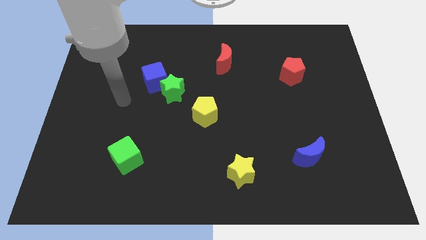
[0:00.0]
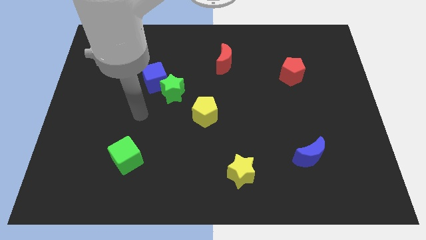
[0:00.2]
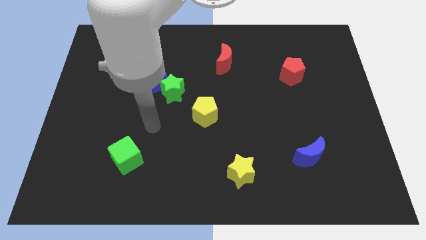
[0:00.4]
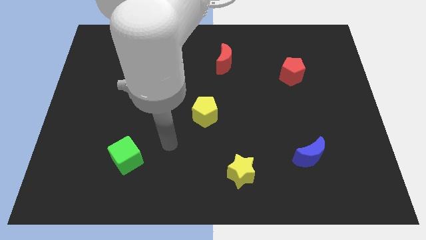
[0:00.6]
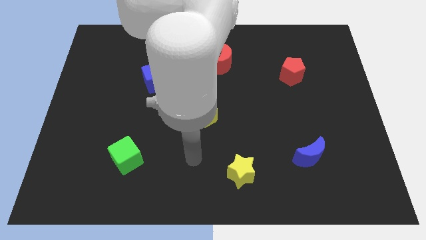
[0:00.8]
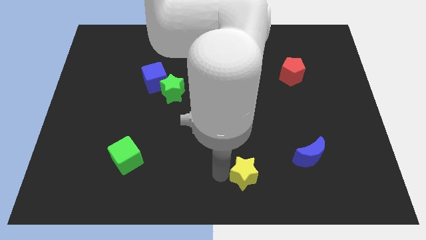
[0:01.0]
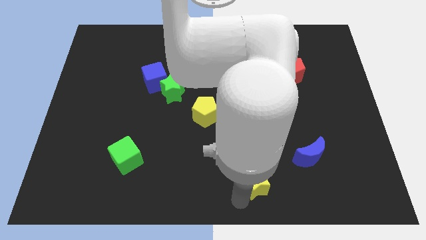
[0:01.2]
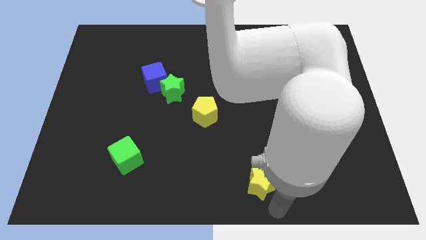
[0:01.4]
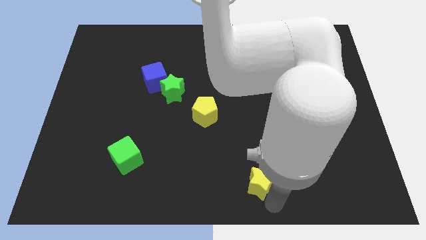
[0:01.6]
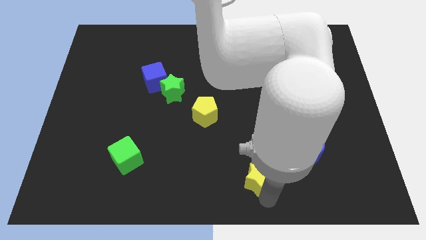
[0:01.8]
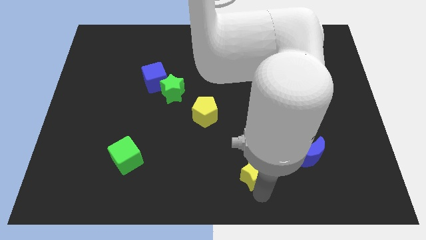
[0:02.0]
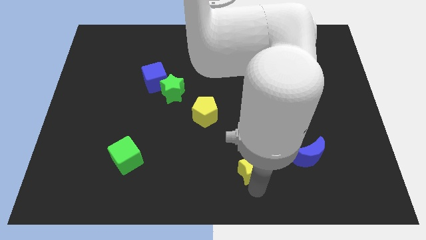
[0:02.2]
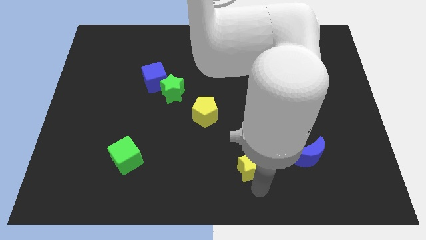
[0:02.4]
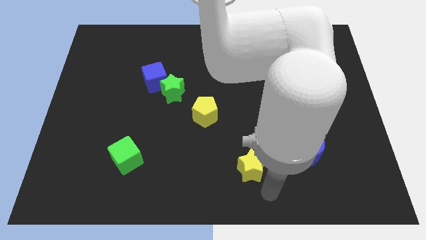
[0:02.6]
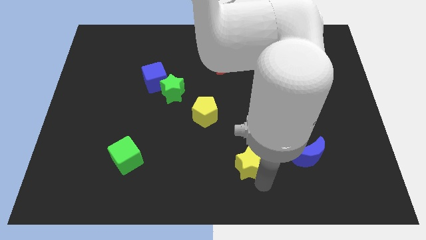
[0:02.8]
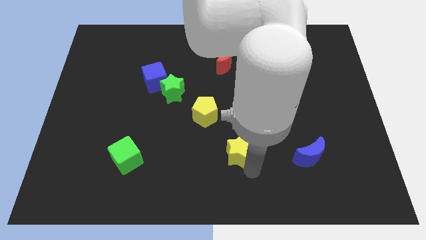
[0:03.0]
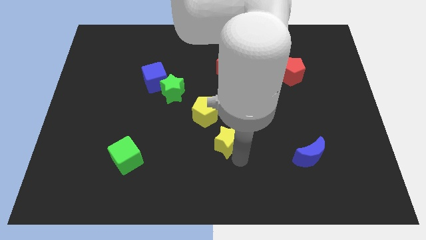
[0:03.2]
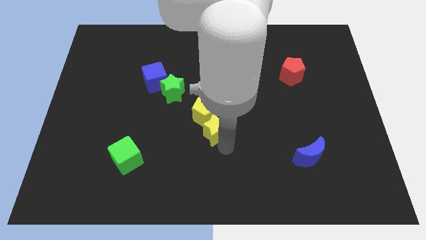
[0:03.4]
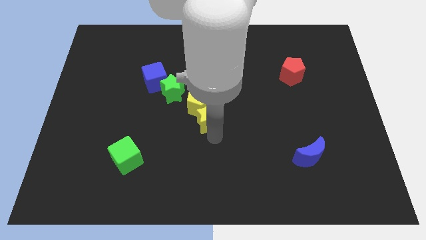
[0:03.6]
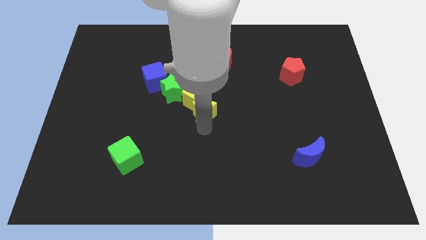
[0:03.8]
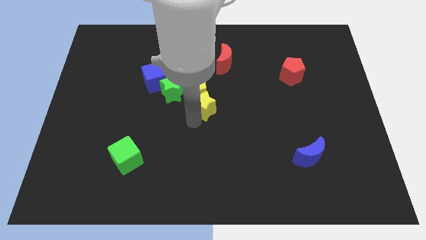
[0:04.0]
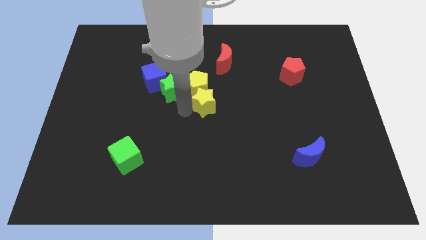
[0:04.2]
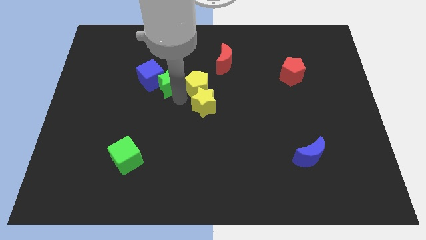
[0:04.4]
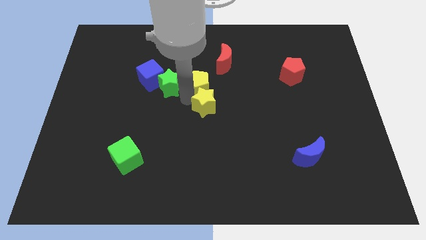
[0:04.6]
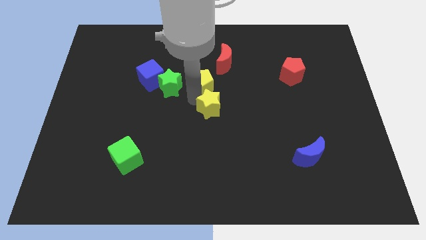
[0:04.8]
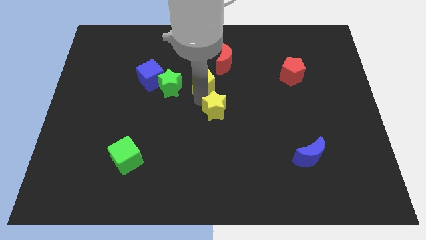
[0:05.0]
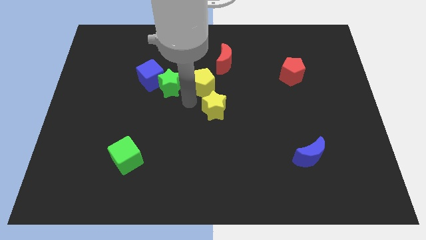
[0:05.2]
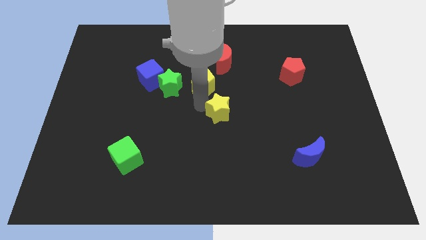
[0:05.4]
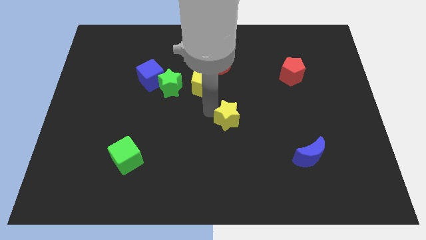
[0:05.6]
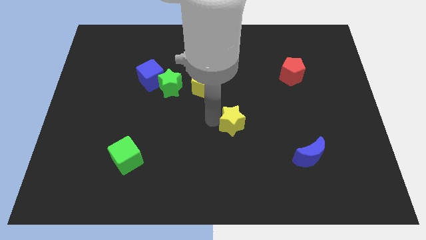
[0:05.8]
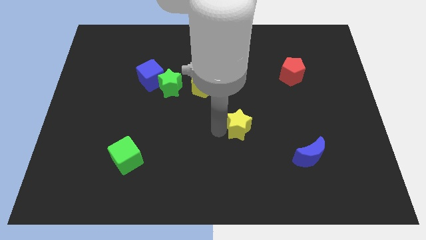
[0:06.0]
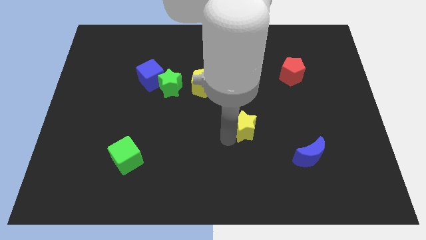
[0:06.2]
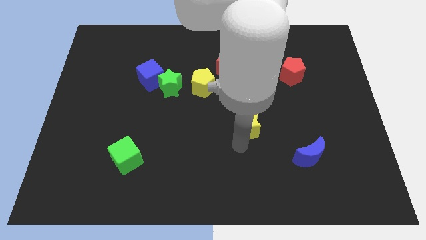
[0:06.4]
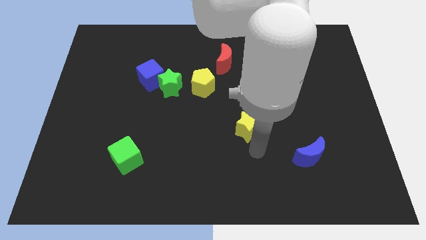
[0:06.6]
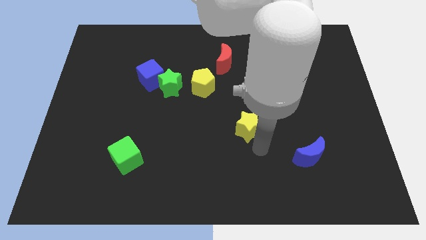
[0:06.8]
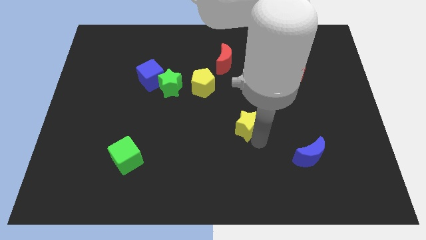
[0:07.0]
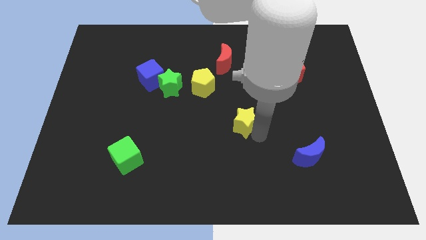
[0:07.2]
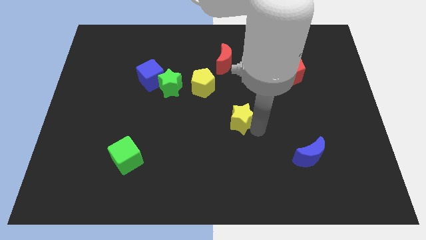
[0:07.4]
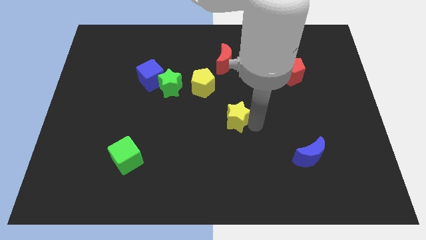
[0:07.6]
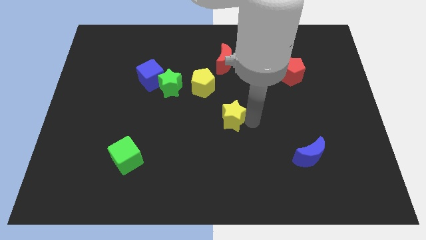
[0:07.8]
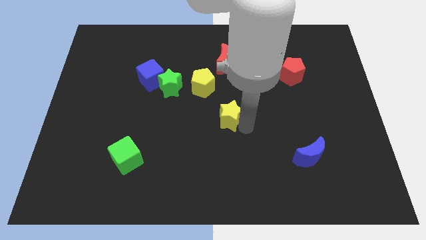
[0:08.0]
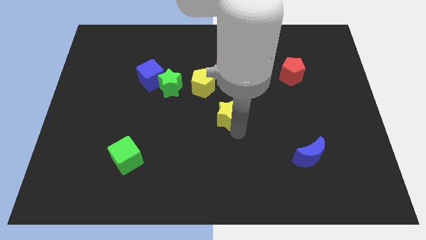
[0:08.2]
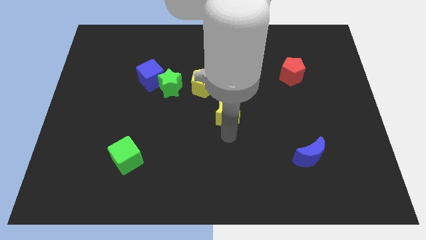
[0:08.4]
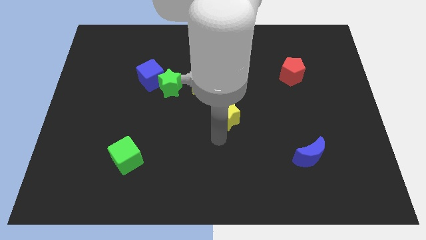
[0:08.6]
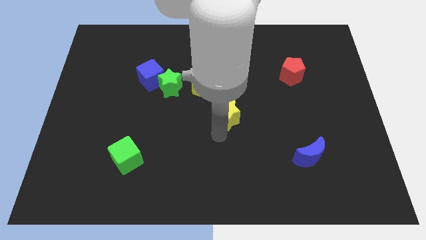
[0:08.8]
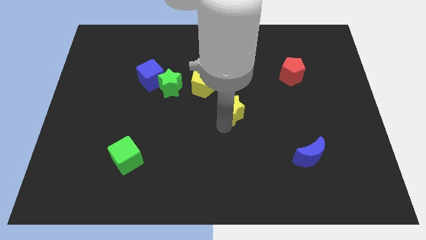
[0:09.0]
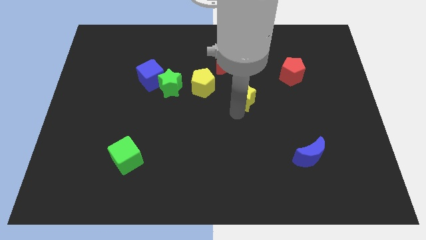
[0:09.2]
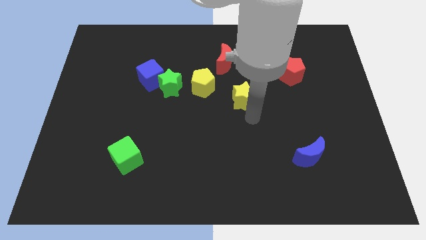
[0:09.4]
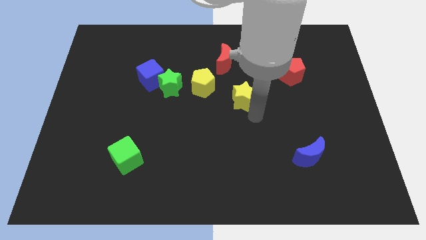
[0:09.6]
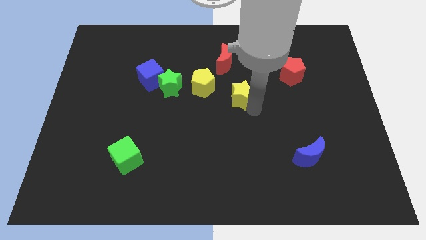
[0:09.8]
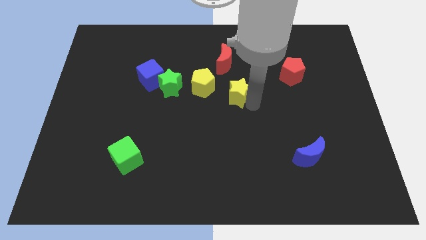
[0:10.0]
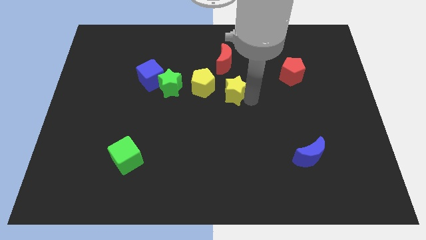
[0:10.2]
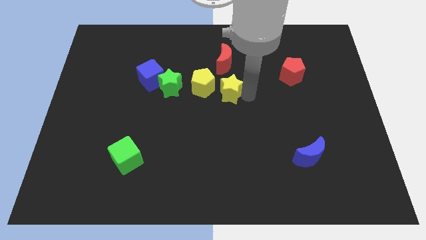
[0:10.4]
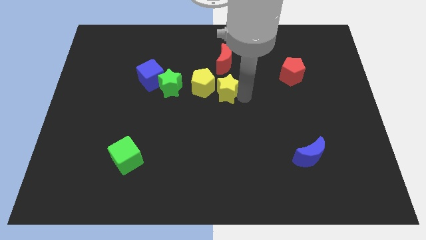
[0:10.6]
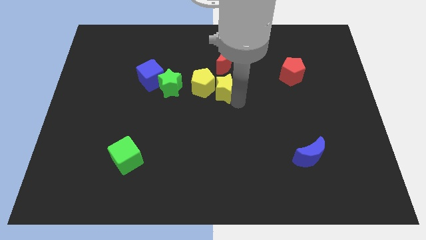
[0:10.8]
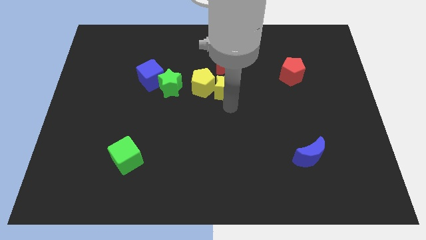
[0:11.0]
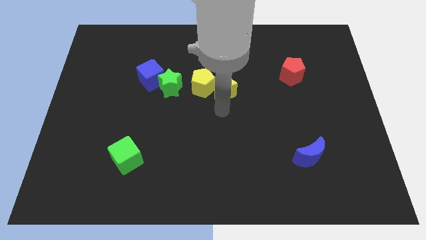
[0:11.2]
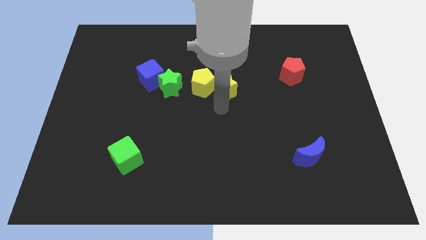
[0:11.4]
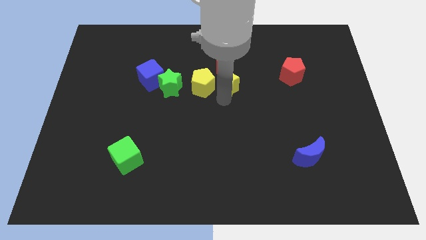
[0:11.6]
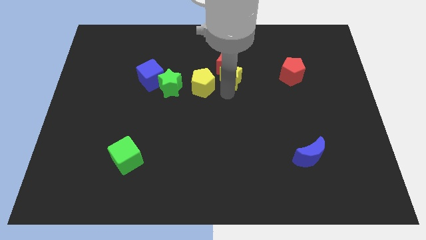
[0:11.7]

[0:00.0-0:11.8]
put the yellow star next to the red moon

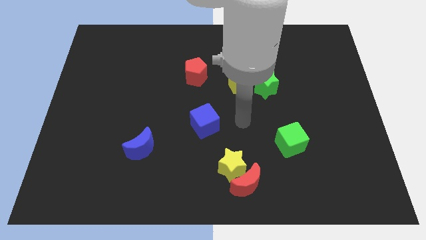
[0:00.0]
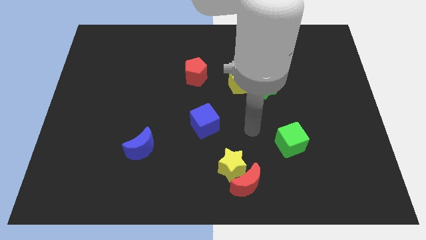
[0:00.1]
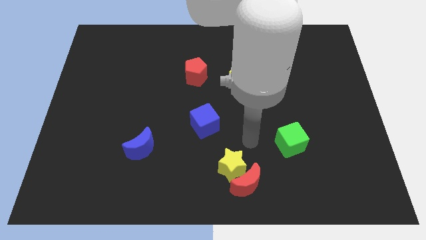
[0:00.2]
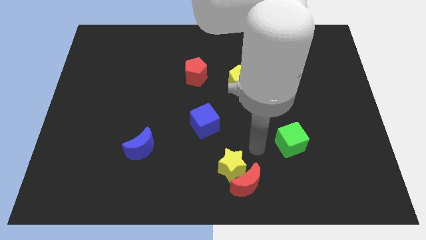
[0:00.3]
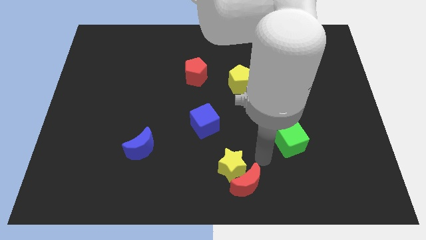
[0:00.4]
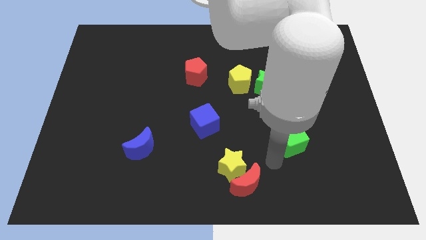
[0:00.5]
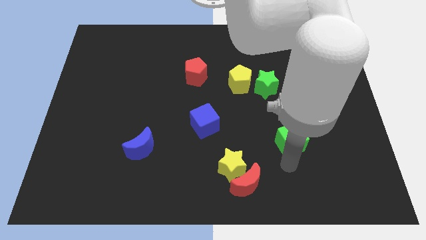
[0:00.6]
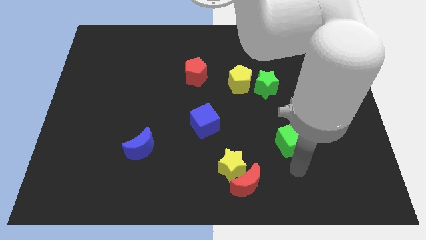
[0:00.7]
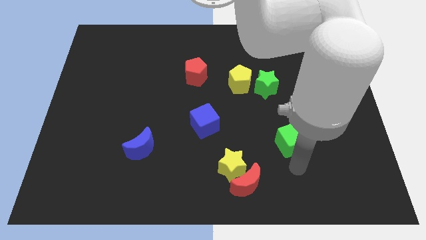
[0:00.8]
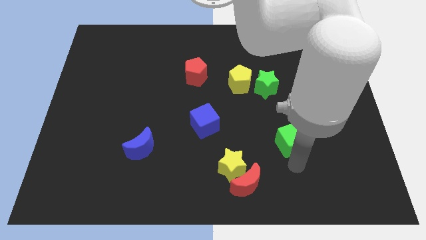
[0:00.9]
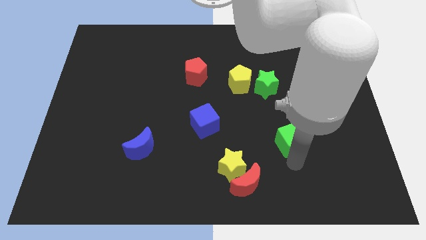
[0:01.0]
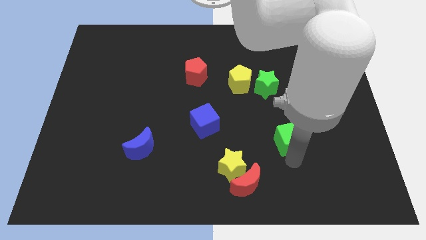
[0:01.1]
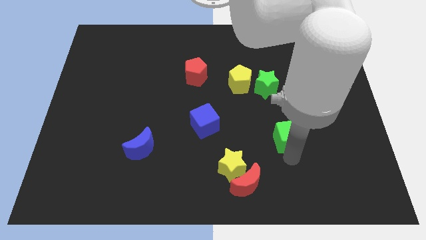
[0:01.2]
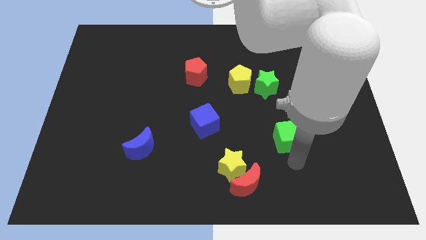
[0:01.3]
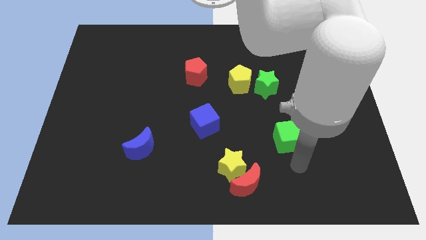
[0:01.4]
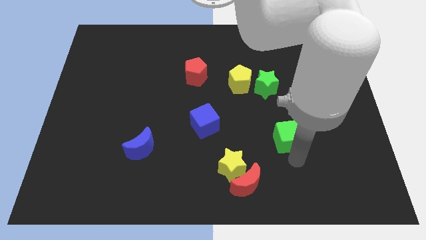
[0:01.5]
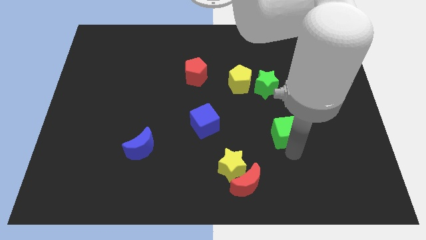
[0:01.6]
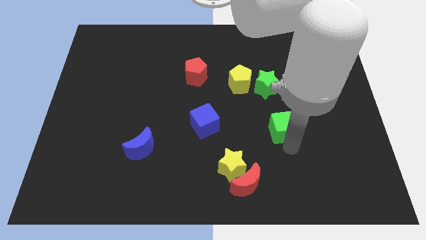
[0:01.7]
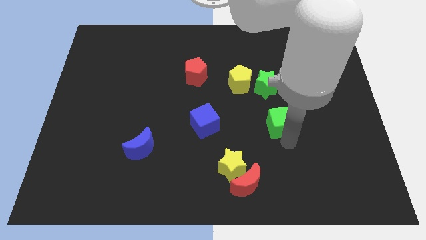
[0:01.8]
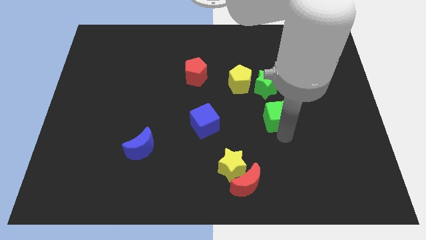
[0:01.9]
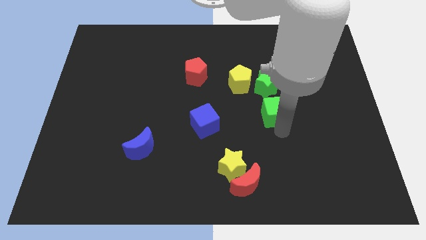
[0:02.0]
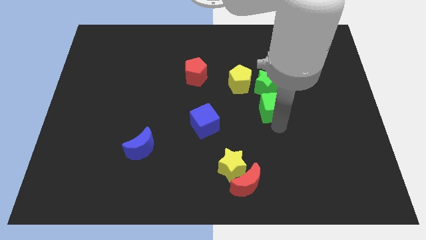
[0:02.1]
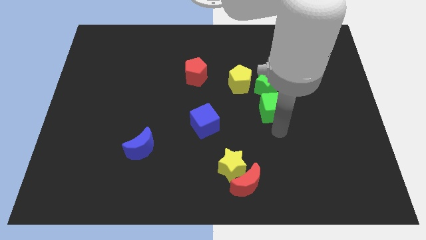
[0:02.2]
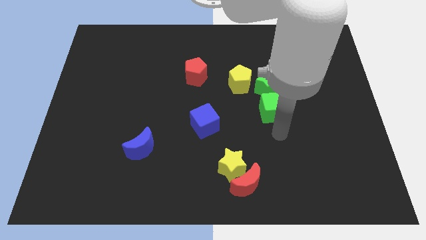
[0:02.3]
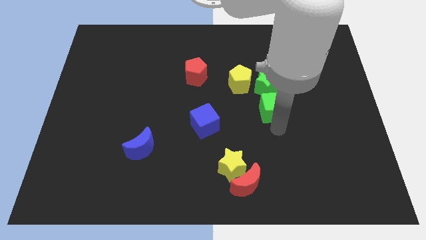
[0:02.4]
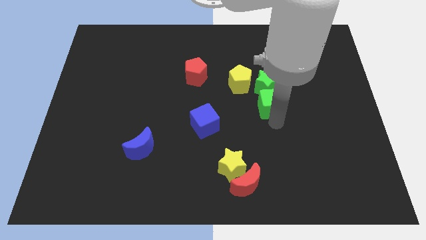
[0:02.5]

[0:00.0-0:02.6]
put the green cube close to the green star
